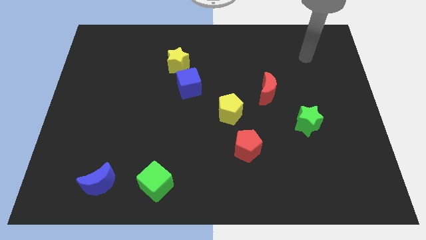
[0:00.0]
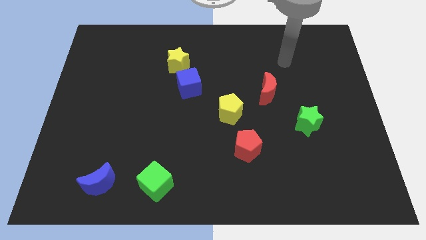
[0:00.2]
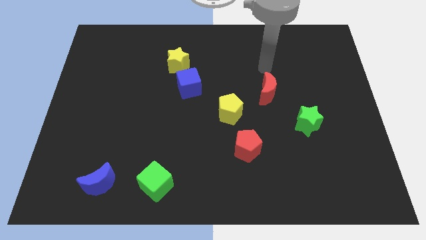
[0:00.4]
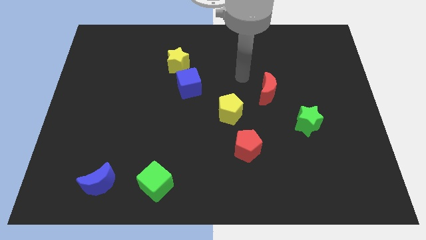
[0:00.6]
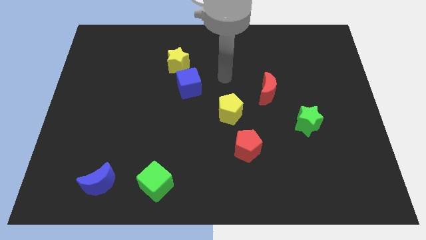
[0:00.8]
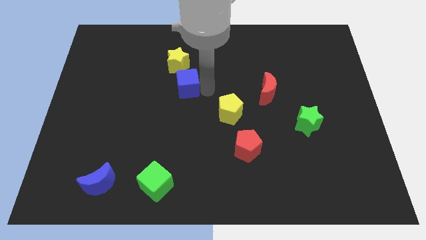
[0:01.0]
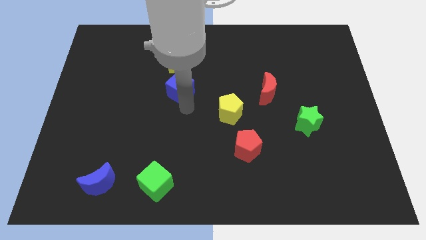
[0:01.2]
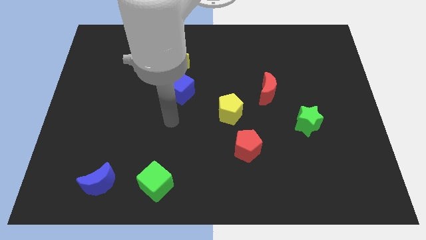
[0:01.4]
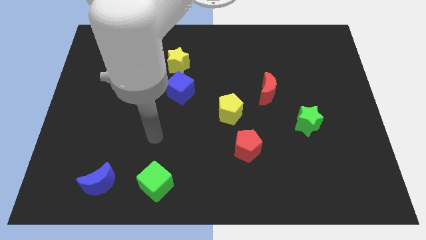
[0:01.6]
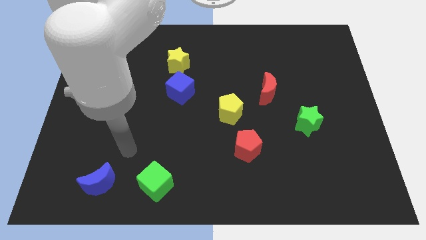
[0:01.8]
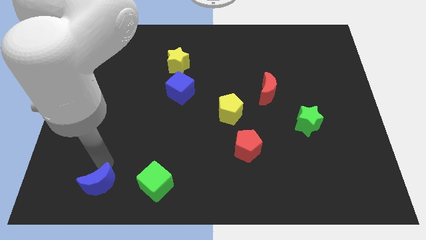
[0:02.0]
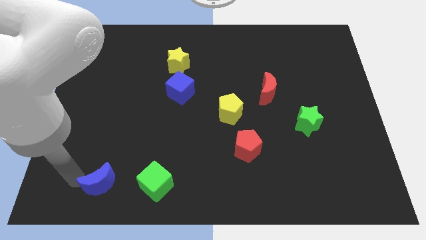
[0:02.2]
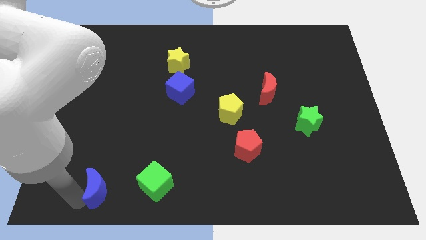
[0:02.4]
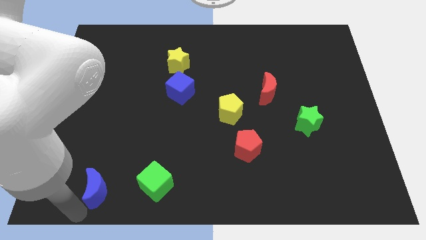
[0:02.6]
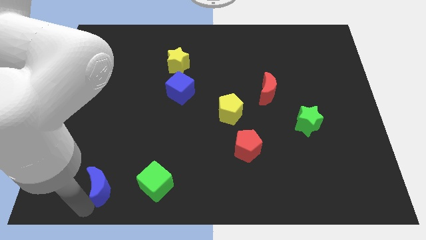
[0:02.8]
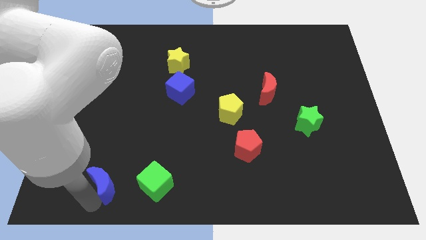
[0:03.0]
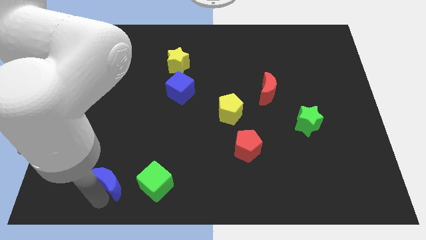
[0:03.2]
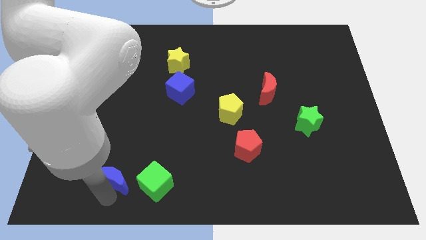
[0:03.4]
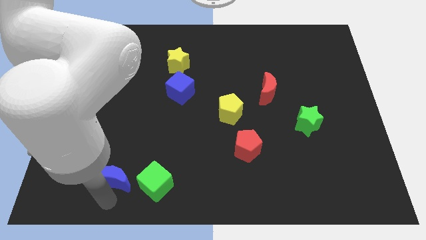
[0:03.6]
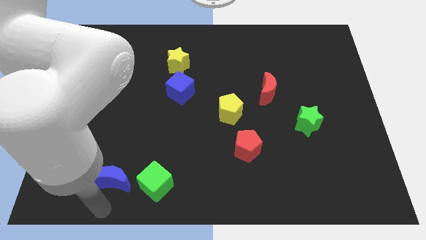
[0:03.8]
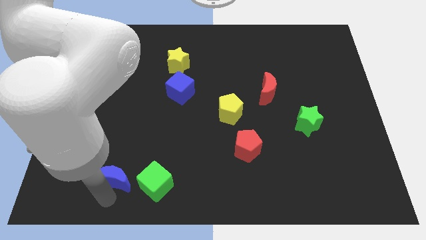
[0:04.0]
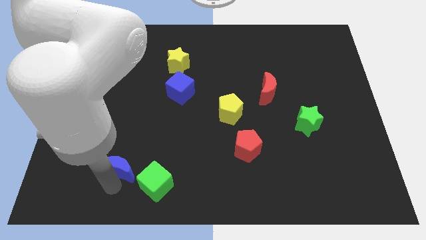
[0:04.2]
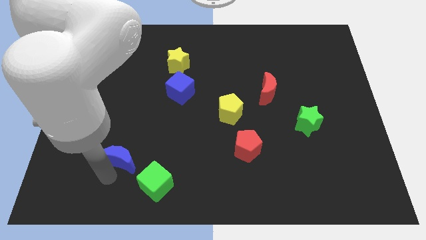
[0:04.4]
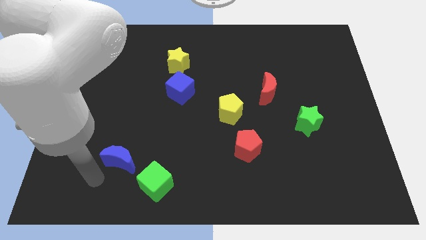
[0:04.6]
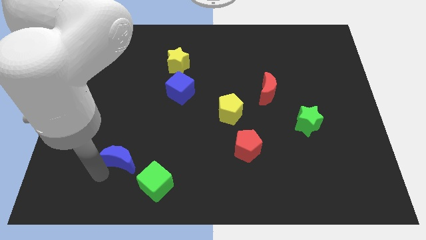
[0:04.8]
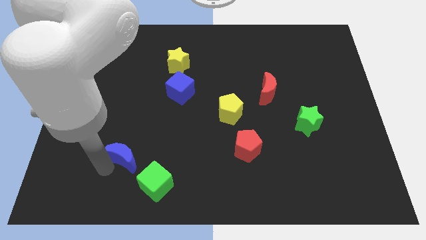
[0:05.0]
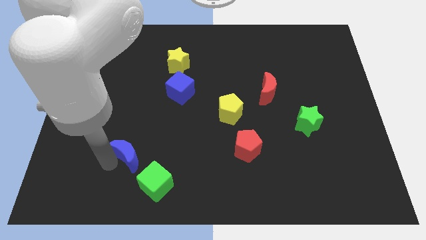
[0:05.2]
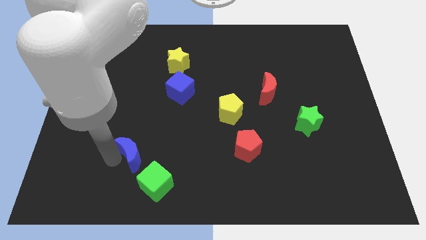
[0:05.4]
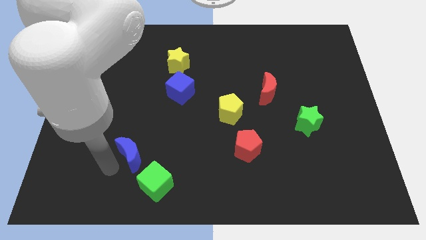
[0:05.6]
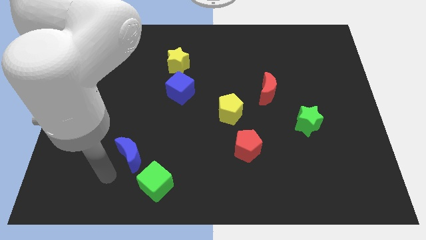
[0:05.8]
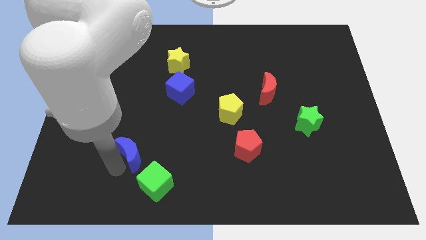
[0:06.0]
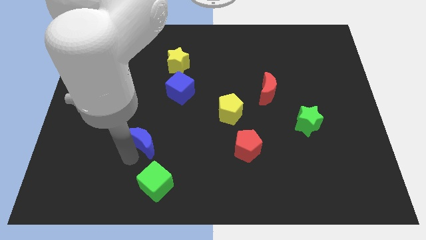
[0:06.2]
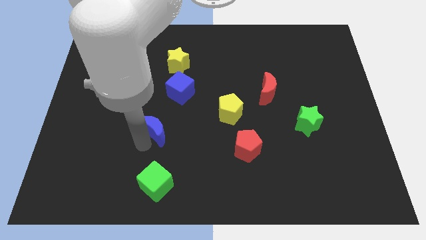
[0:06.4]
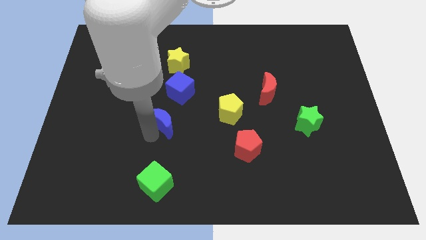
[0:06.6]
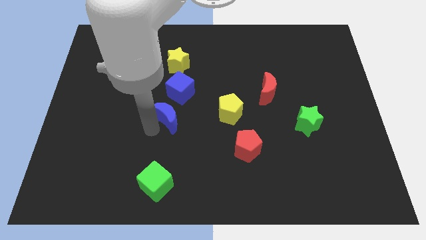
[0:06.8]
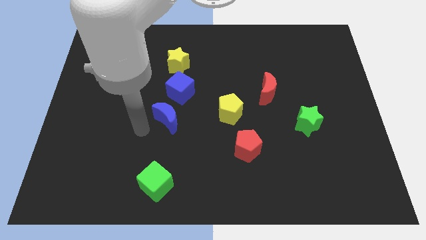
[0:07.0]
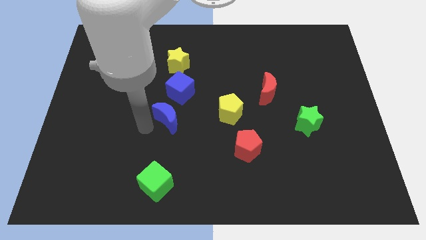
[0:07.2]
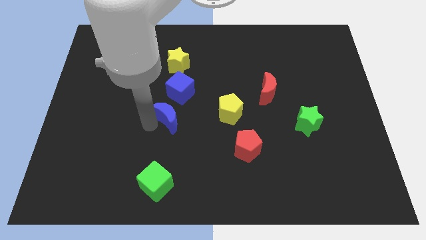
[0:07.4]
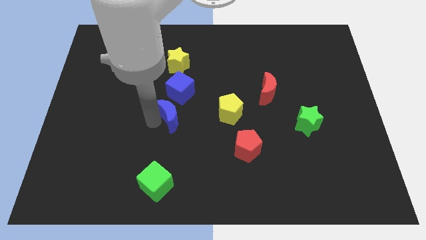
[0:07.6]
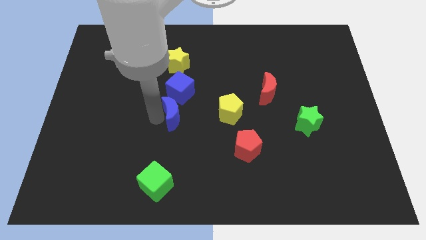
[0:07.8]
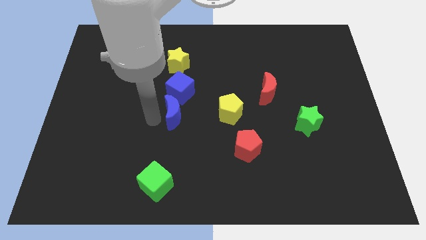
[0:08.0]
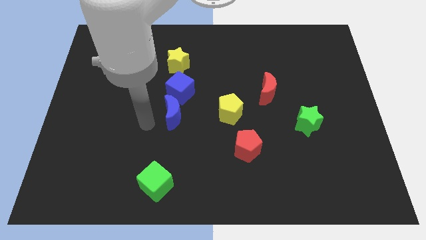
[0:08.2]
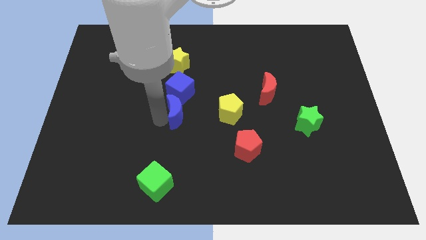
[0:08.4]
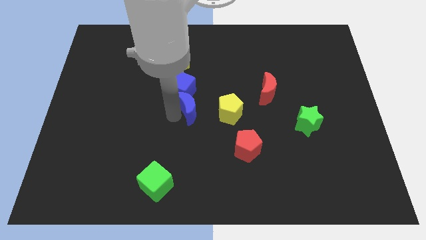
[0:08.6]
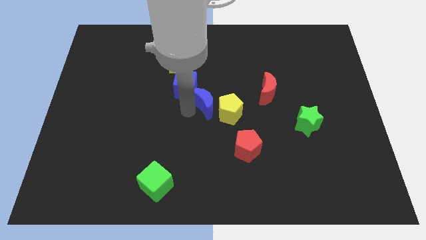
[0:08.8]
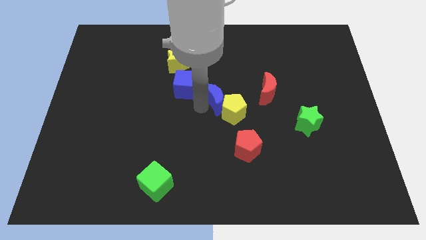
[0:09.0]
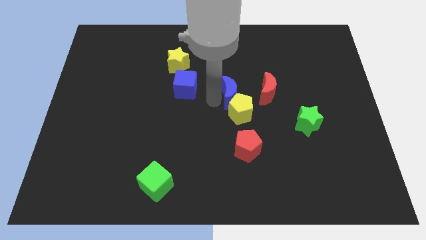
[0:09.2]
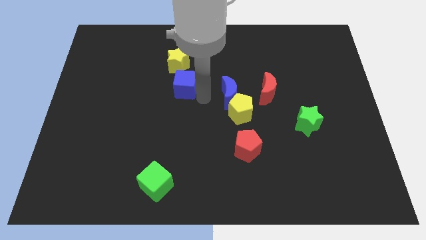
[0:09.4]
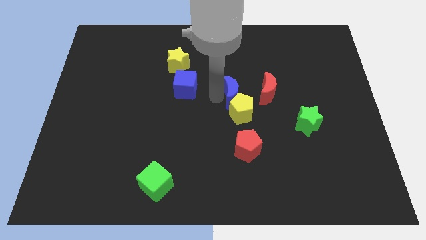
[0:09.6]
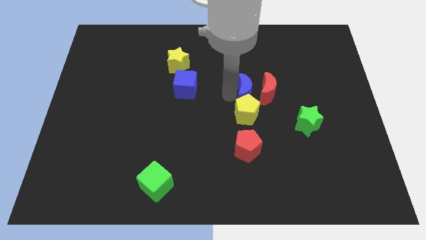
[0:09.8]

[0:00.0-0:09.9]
push the blue moon next to the red moon

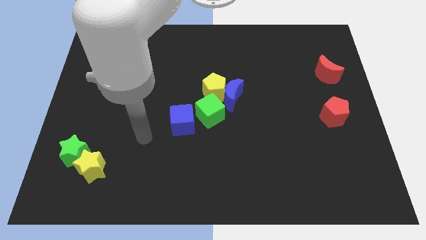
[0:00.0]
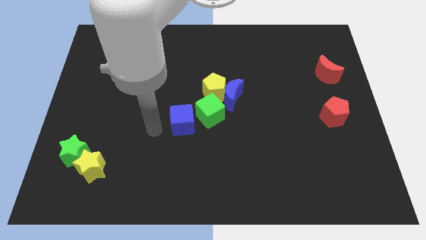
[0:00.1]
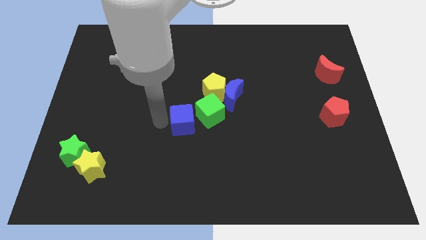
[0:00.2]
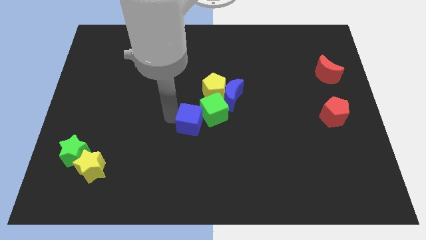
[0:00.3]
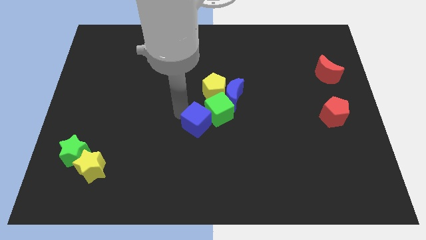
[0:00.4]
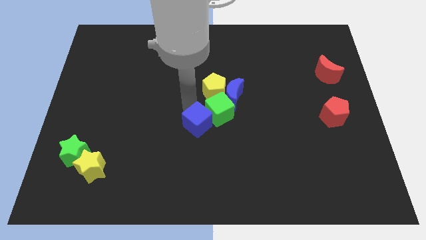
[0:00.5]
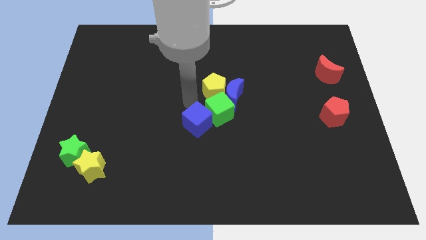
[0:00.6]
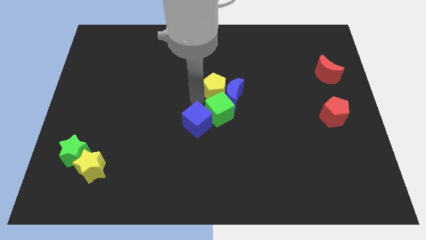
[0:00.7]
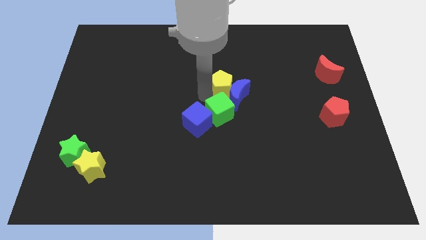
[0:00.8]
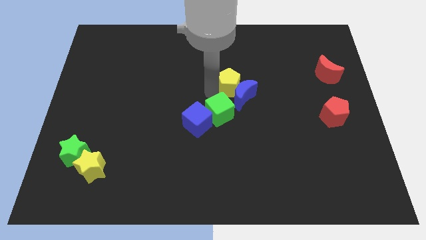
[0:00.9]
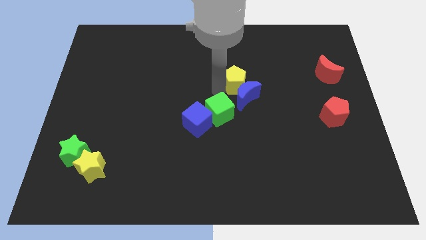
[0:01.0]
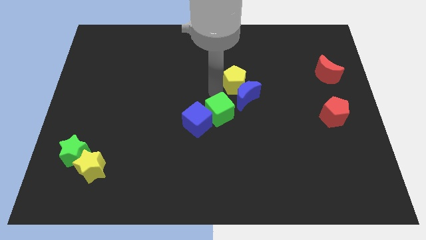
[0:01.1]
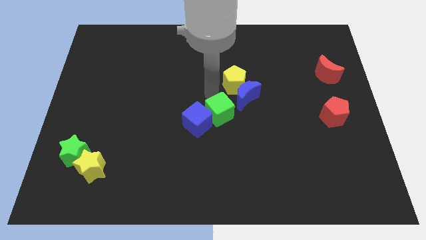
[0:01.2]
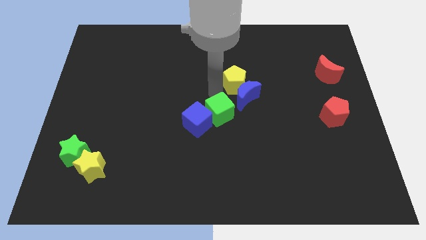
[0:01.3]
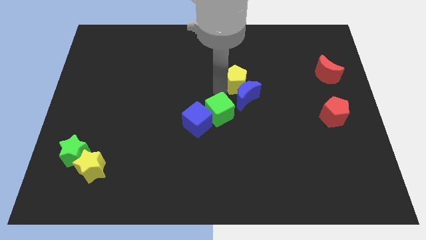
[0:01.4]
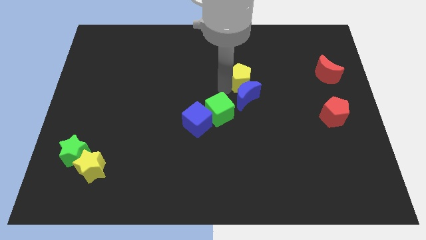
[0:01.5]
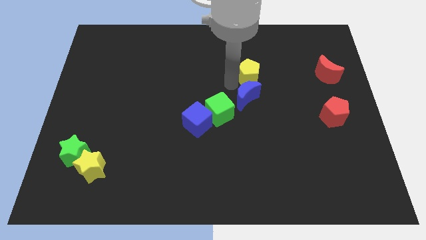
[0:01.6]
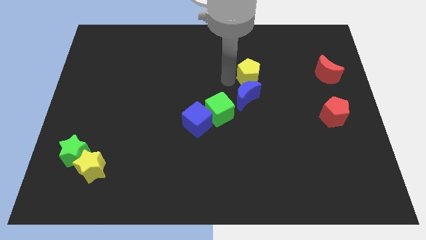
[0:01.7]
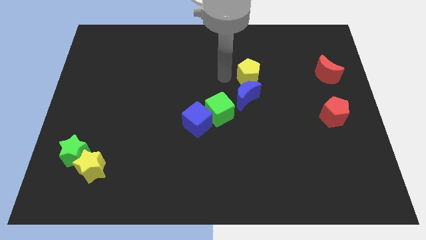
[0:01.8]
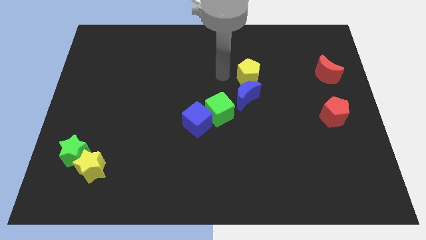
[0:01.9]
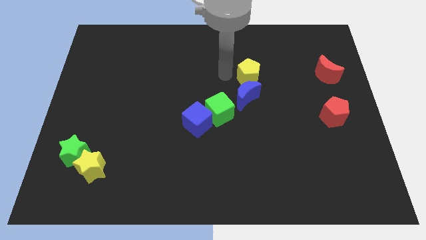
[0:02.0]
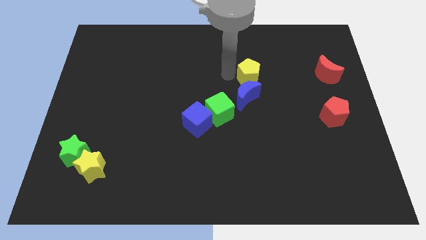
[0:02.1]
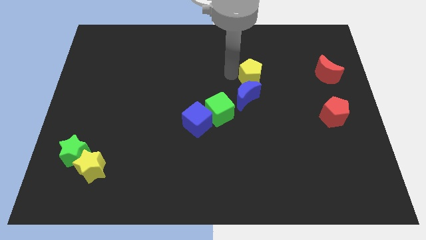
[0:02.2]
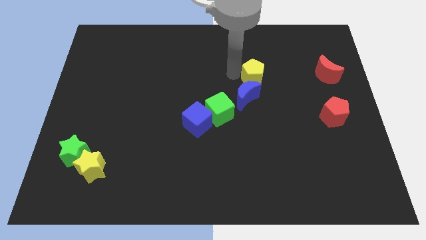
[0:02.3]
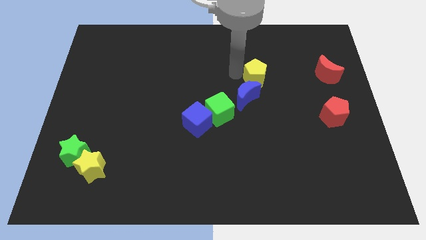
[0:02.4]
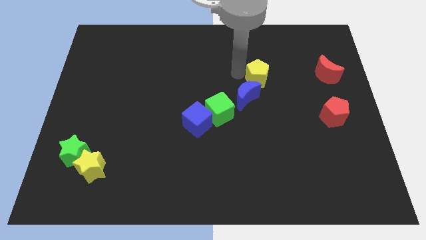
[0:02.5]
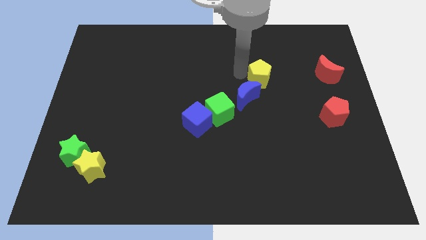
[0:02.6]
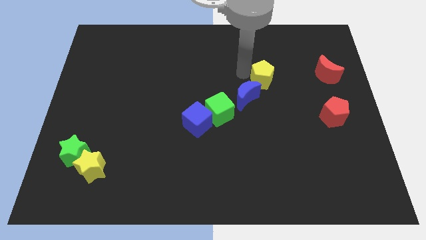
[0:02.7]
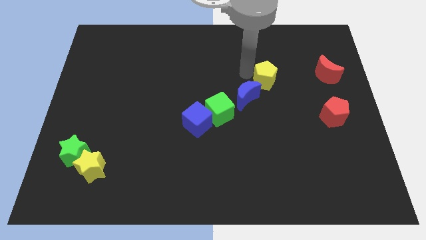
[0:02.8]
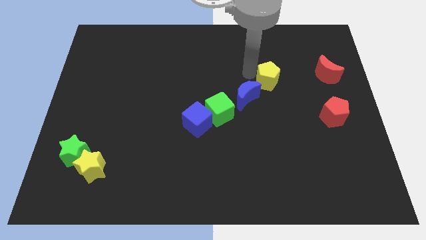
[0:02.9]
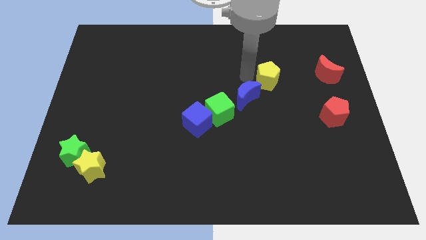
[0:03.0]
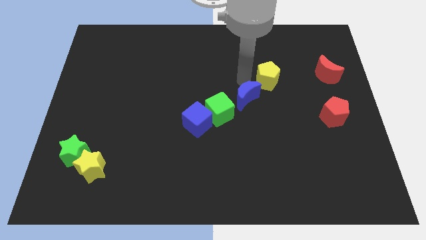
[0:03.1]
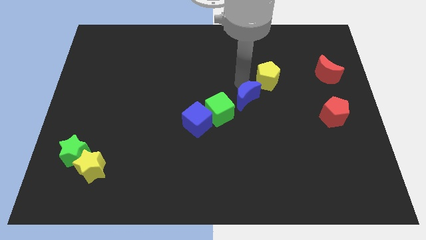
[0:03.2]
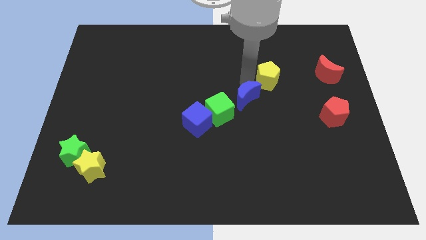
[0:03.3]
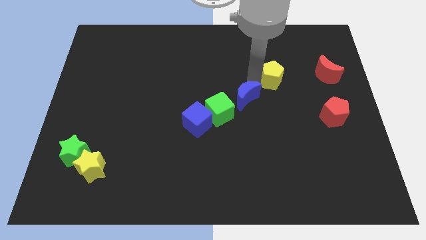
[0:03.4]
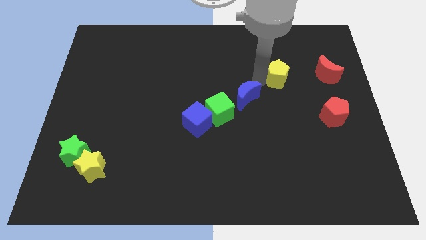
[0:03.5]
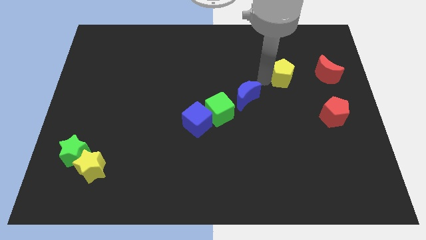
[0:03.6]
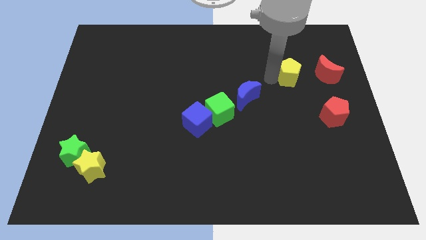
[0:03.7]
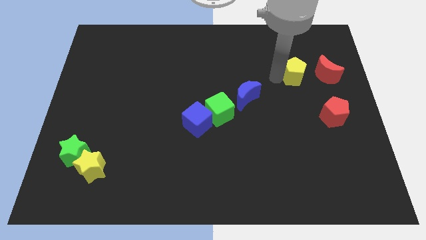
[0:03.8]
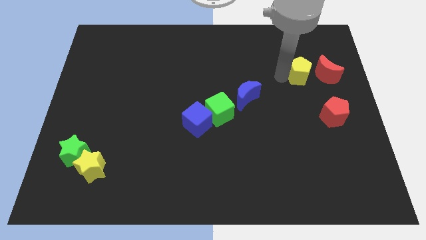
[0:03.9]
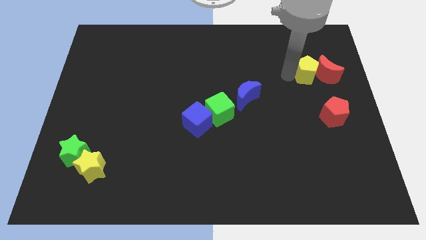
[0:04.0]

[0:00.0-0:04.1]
put the yellow pentagon to the red moon
